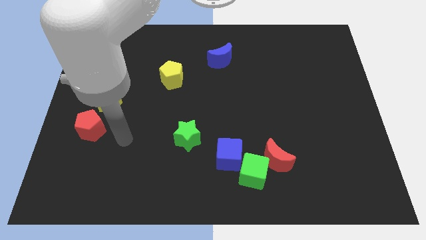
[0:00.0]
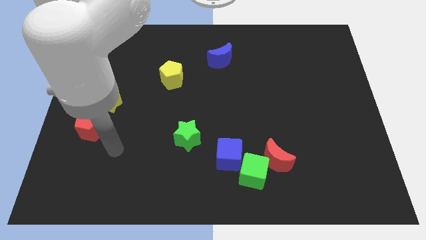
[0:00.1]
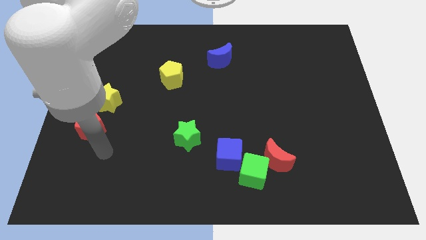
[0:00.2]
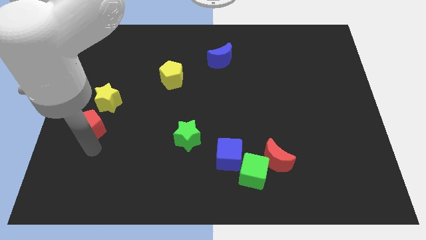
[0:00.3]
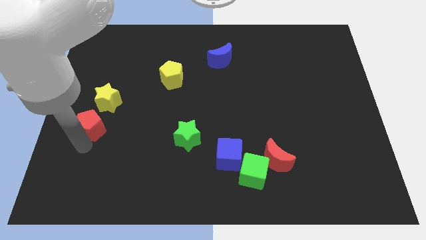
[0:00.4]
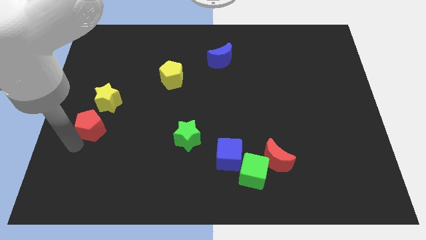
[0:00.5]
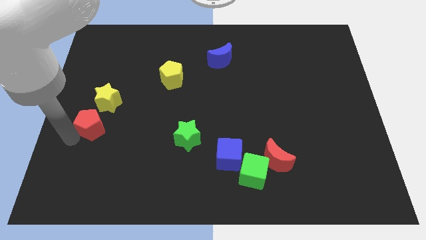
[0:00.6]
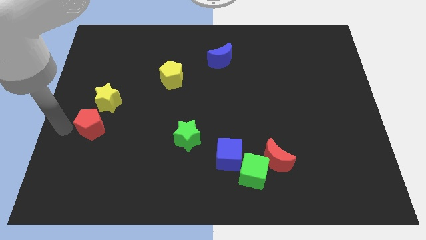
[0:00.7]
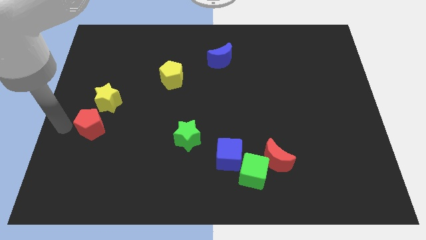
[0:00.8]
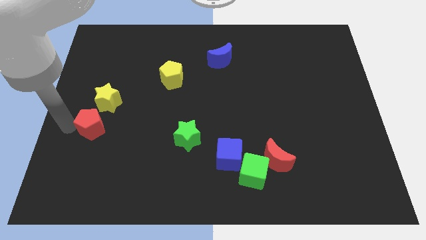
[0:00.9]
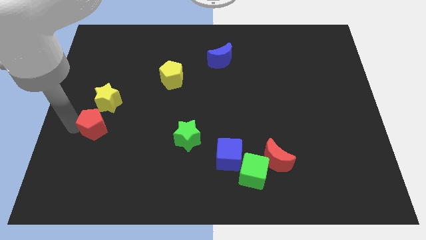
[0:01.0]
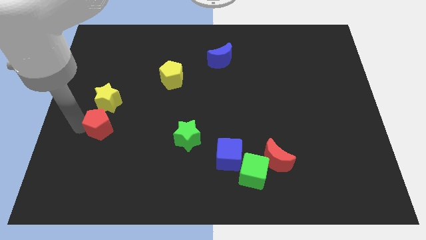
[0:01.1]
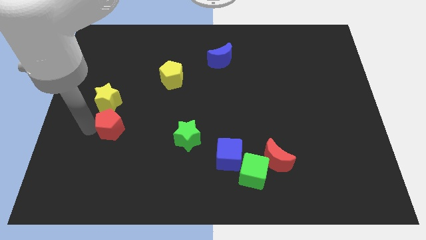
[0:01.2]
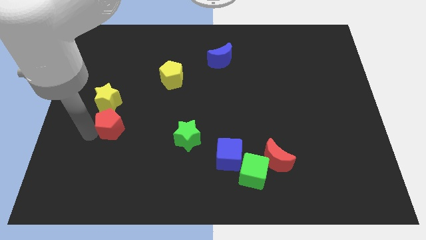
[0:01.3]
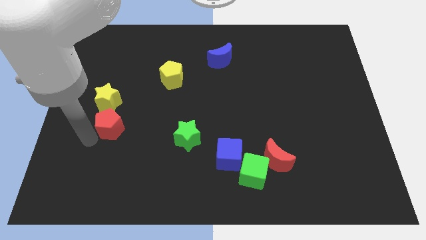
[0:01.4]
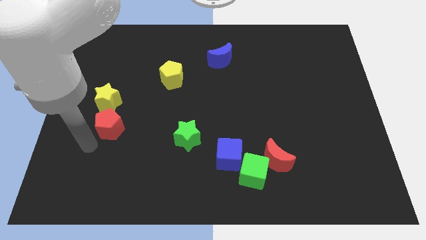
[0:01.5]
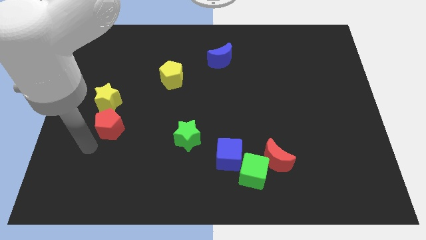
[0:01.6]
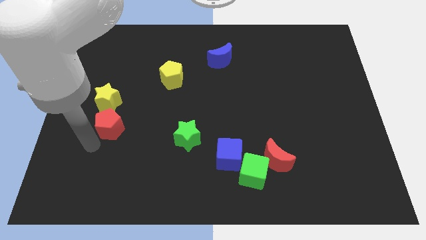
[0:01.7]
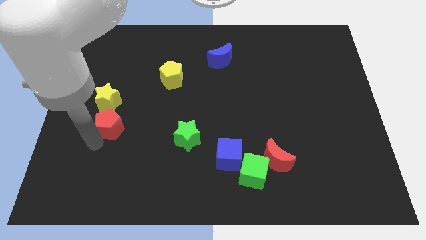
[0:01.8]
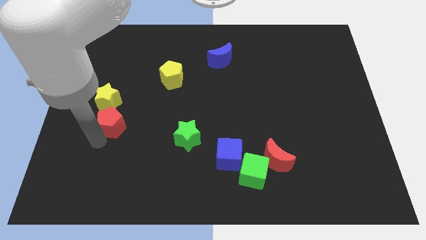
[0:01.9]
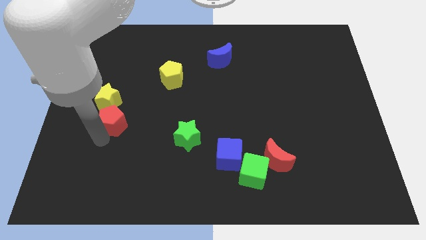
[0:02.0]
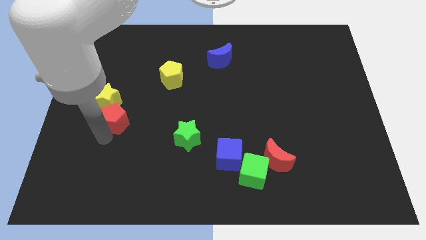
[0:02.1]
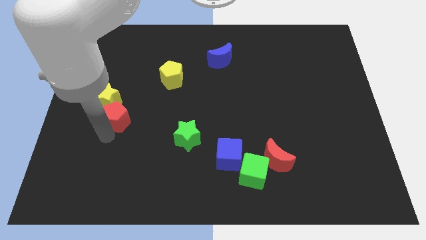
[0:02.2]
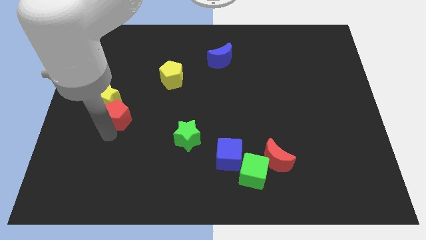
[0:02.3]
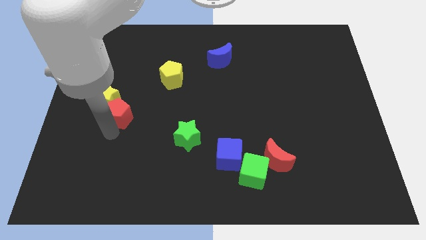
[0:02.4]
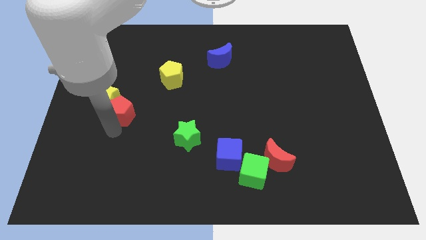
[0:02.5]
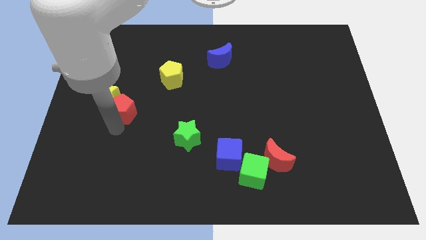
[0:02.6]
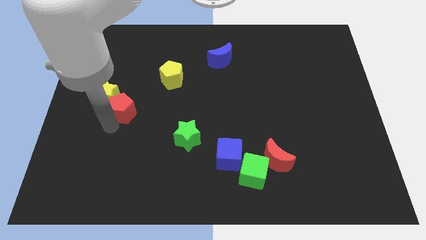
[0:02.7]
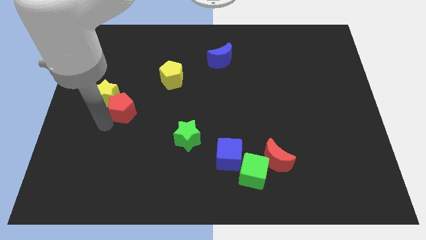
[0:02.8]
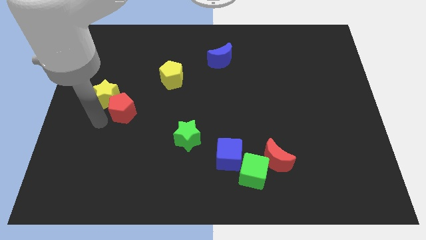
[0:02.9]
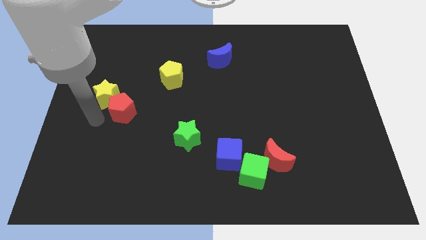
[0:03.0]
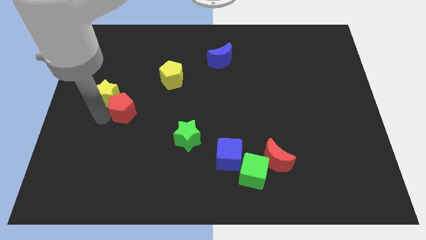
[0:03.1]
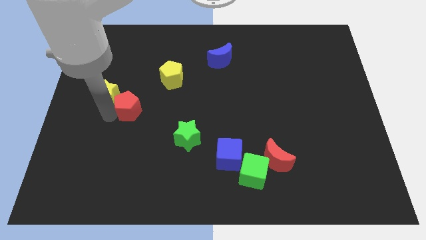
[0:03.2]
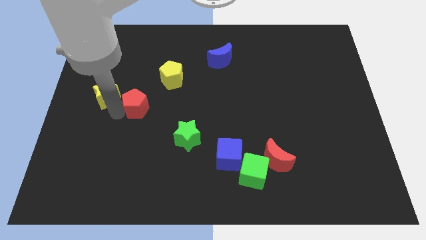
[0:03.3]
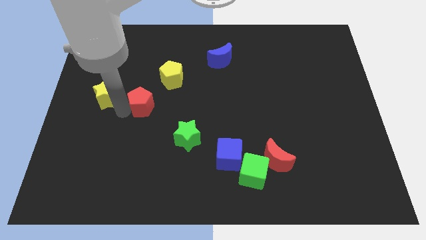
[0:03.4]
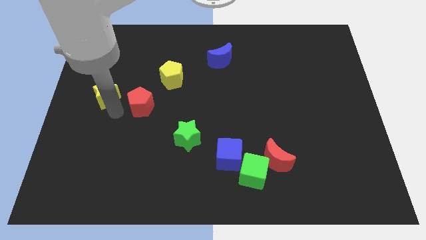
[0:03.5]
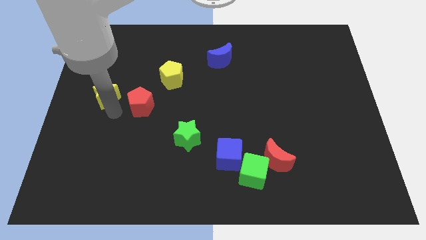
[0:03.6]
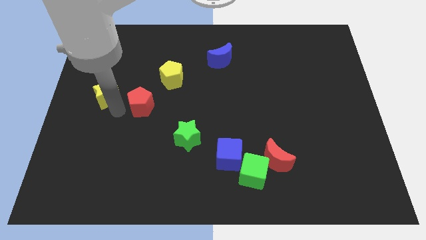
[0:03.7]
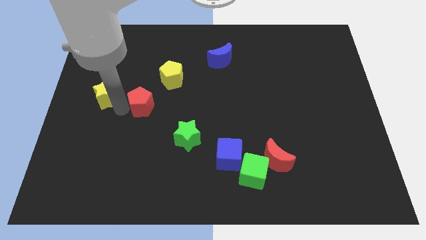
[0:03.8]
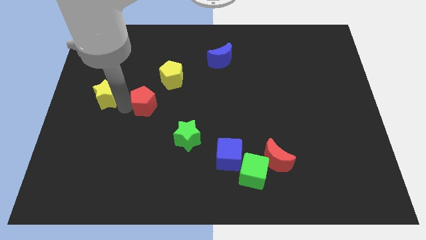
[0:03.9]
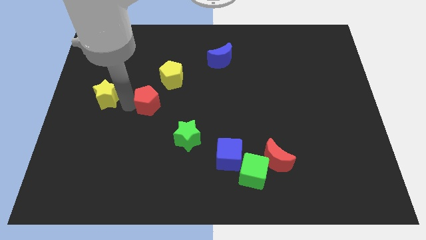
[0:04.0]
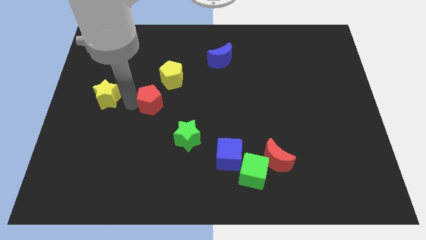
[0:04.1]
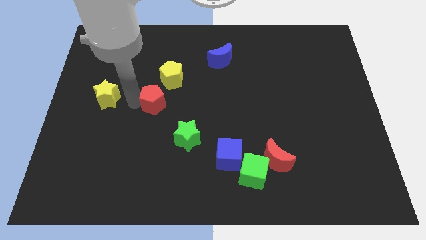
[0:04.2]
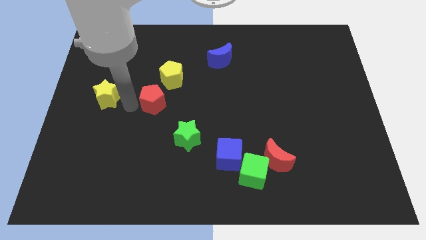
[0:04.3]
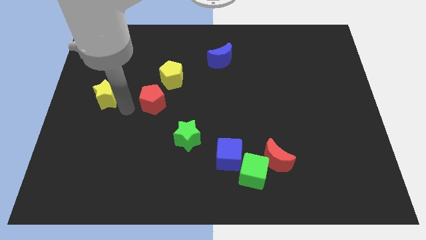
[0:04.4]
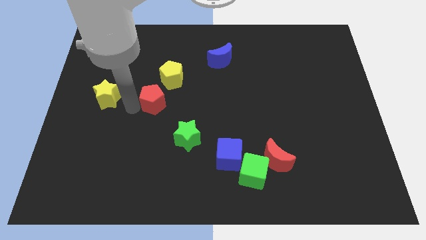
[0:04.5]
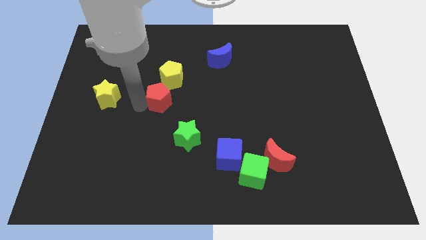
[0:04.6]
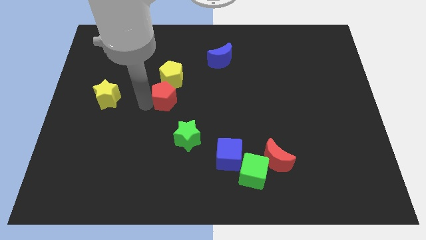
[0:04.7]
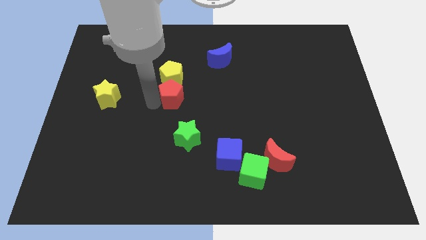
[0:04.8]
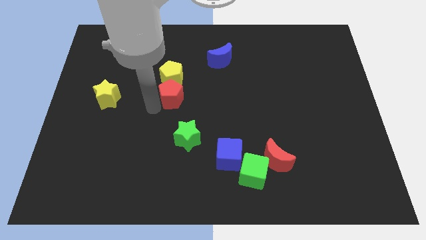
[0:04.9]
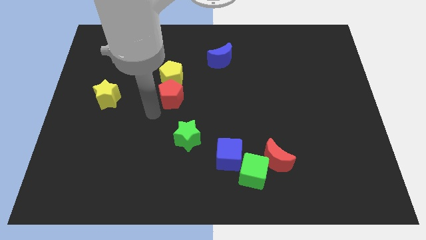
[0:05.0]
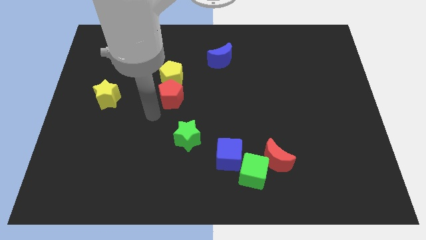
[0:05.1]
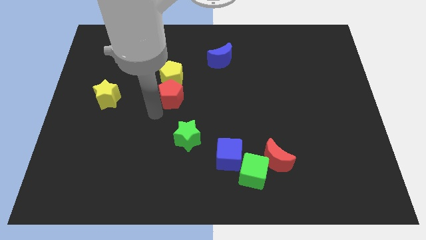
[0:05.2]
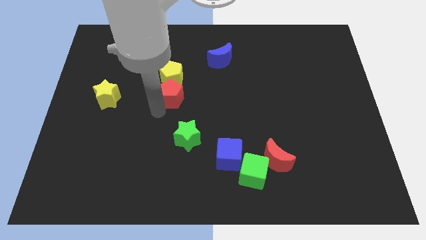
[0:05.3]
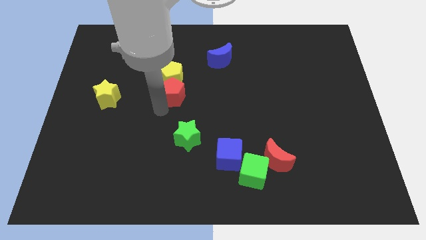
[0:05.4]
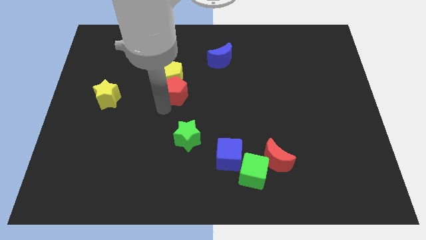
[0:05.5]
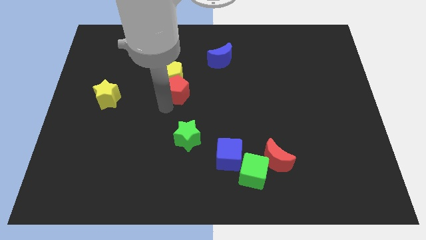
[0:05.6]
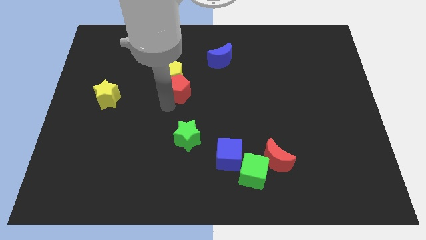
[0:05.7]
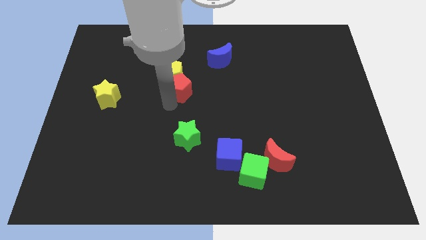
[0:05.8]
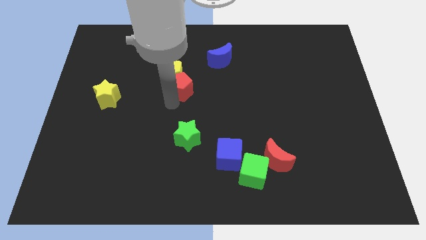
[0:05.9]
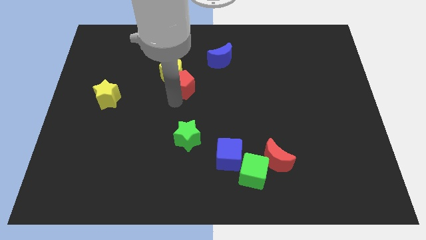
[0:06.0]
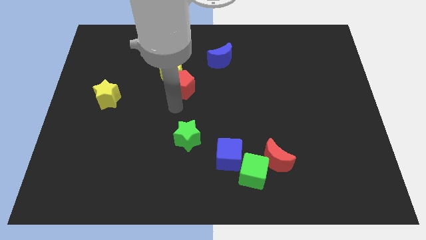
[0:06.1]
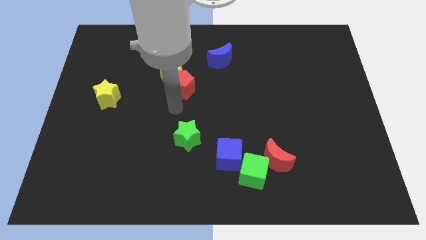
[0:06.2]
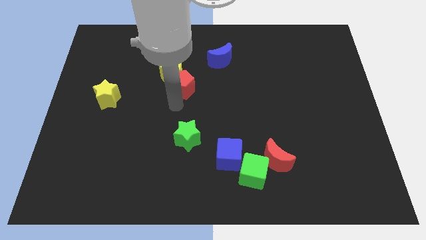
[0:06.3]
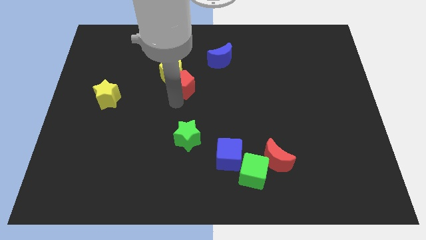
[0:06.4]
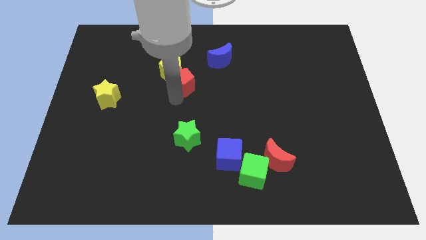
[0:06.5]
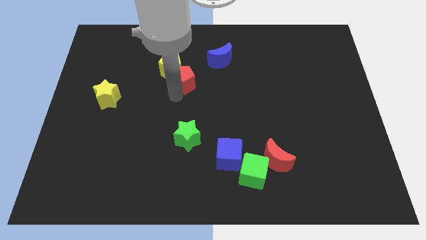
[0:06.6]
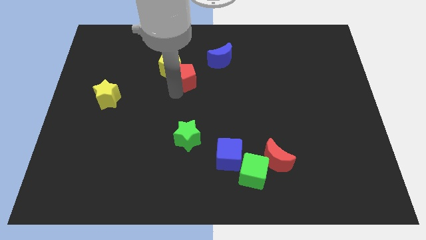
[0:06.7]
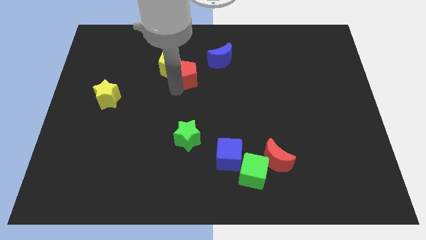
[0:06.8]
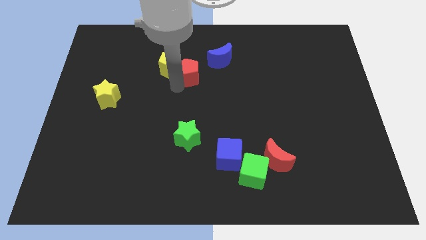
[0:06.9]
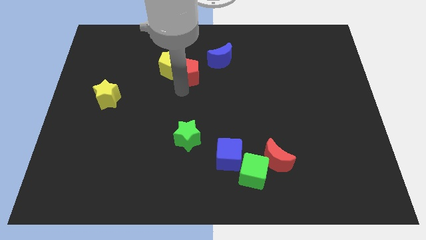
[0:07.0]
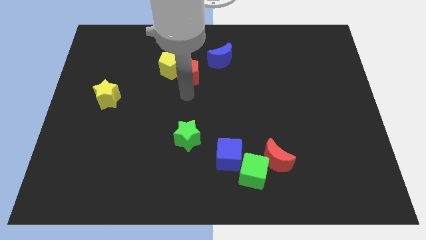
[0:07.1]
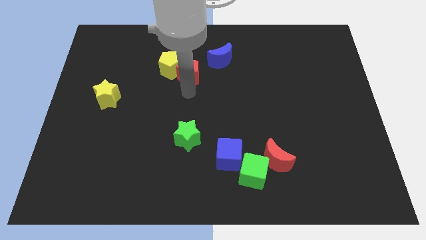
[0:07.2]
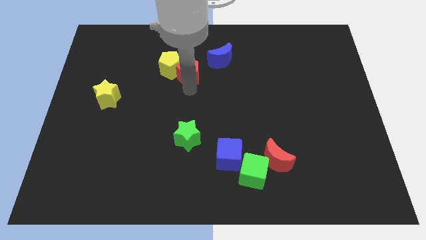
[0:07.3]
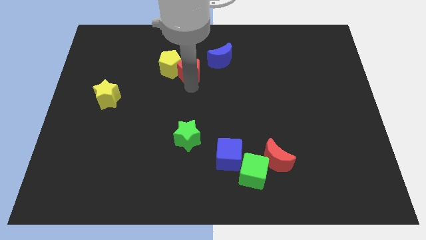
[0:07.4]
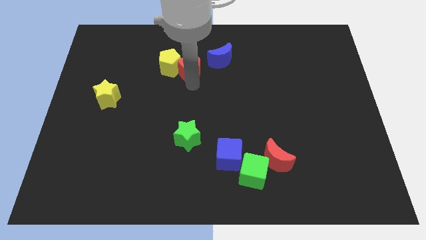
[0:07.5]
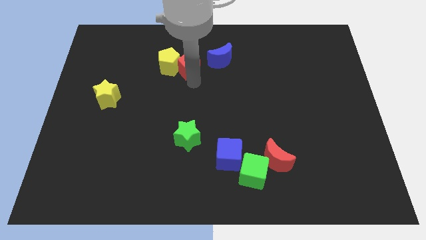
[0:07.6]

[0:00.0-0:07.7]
slide the red pentagon to the top right side of the yellow pentagon
